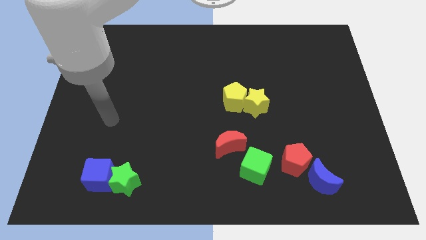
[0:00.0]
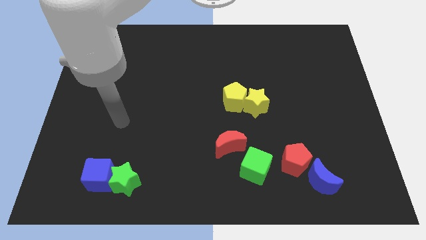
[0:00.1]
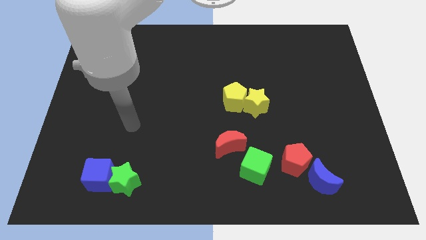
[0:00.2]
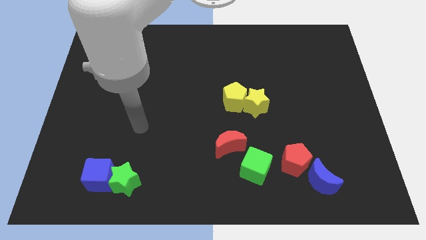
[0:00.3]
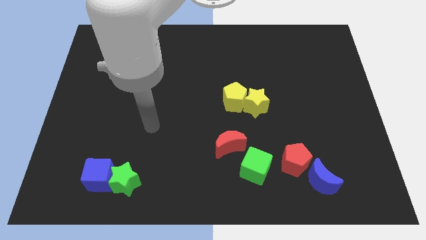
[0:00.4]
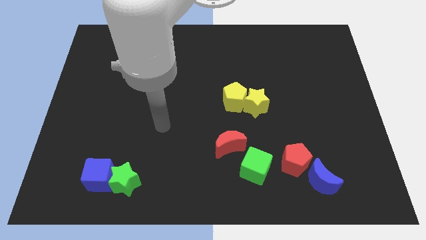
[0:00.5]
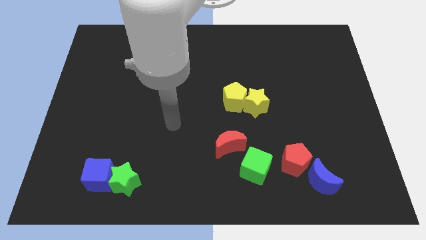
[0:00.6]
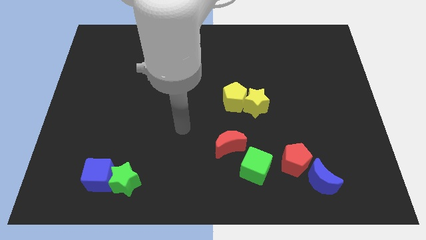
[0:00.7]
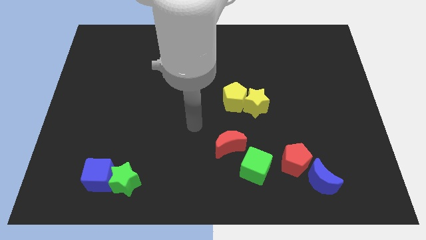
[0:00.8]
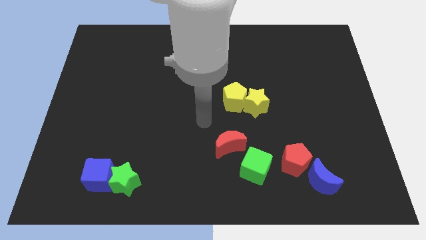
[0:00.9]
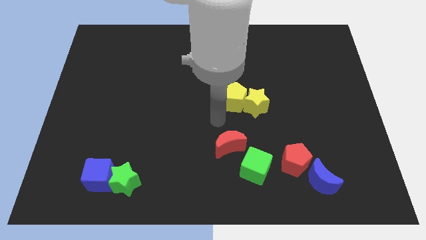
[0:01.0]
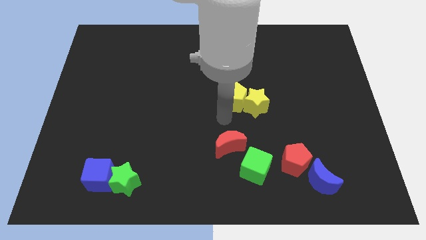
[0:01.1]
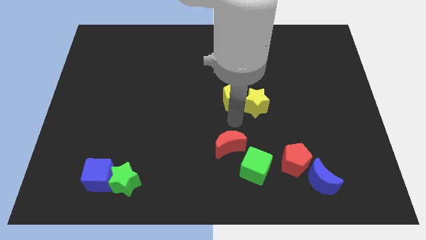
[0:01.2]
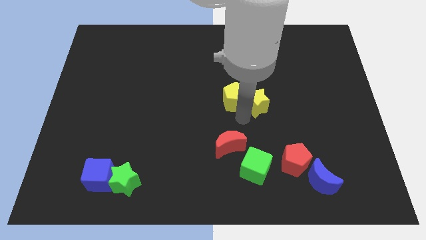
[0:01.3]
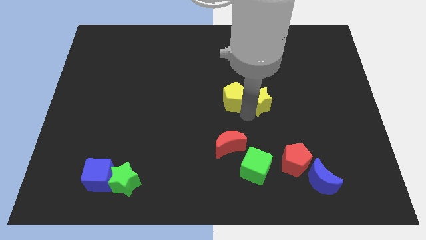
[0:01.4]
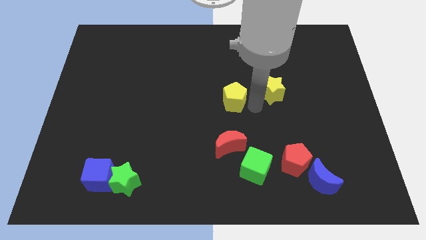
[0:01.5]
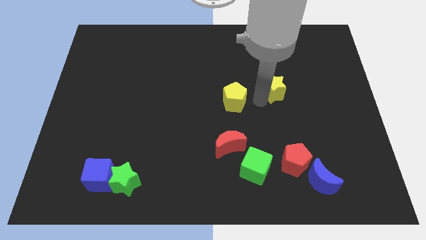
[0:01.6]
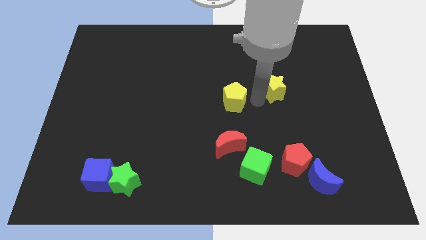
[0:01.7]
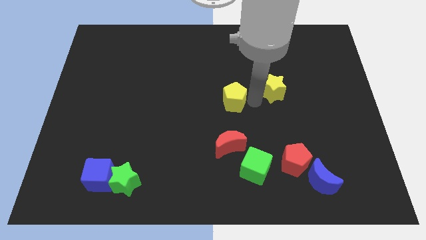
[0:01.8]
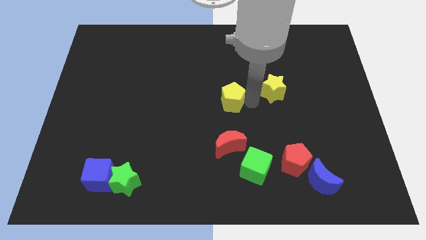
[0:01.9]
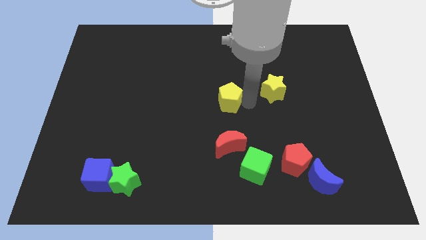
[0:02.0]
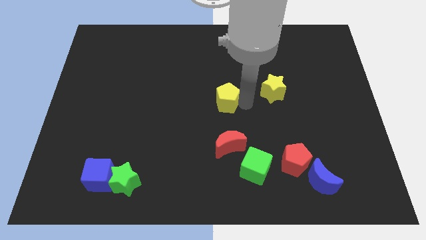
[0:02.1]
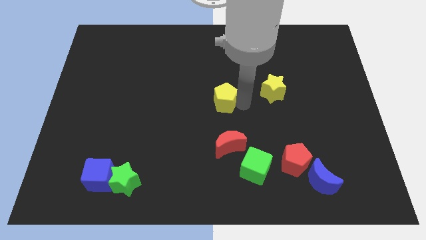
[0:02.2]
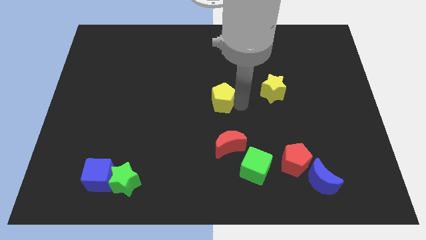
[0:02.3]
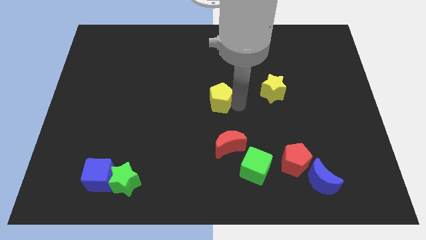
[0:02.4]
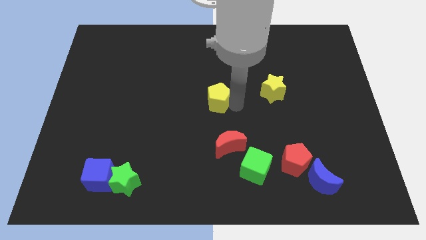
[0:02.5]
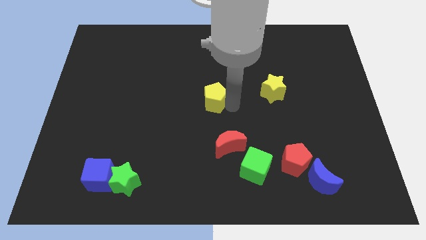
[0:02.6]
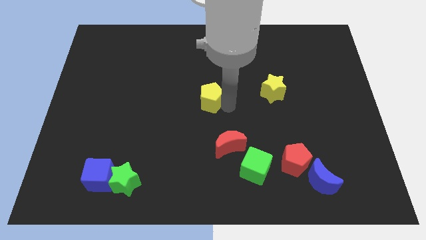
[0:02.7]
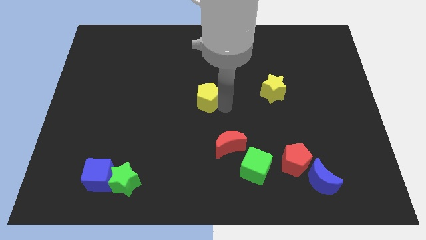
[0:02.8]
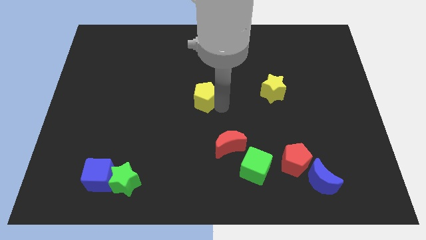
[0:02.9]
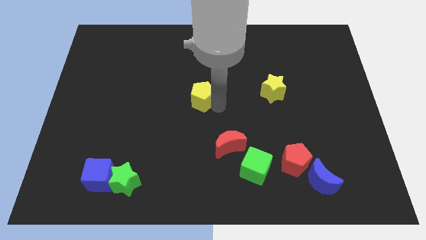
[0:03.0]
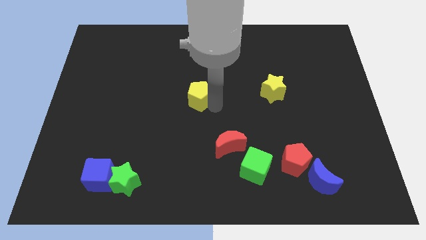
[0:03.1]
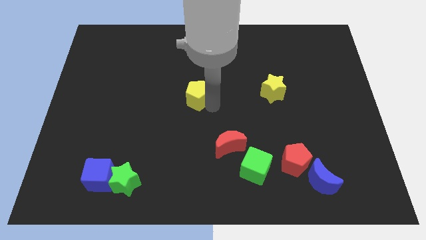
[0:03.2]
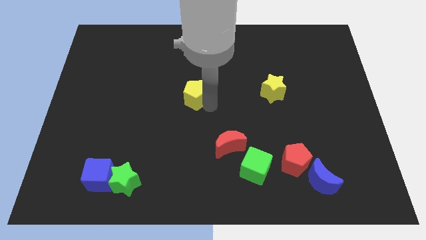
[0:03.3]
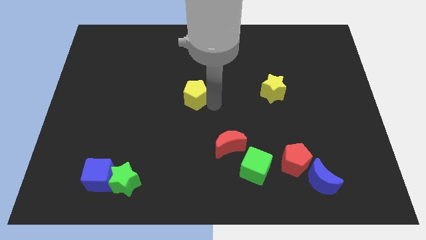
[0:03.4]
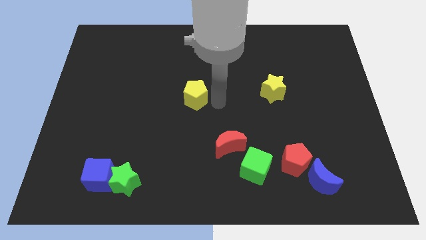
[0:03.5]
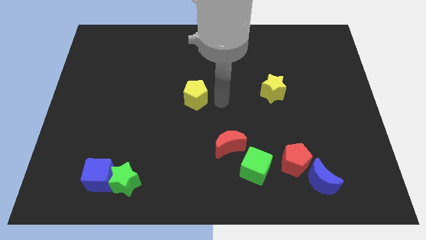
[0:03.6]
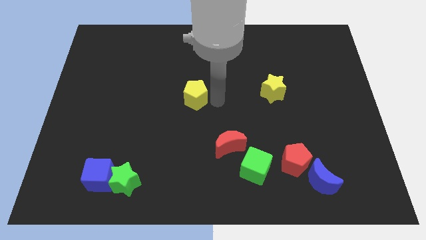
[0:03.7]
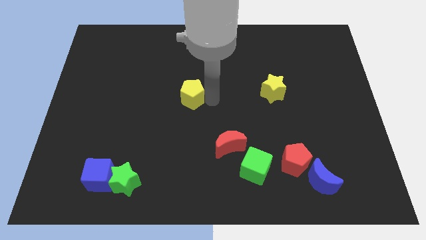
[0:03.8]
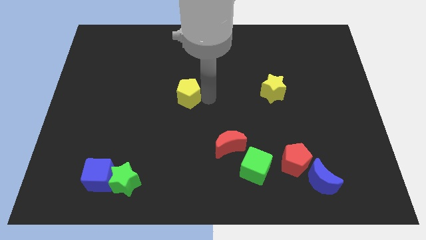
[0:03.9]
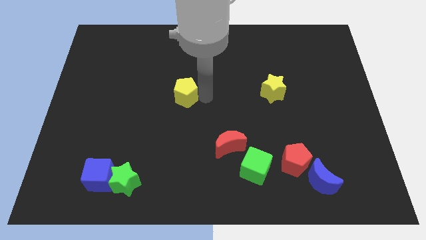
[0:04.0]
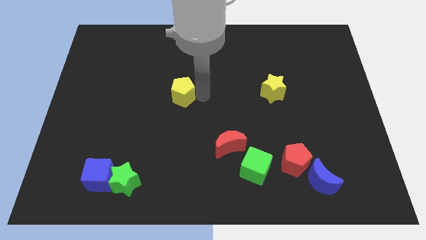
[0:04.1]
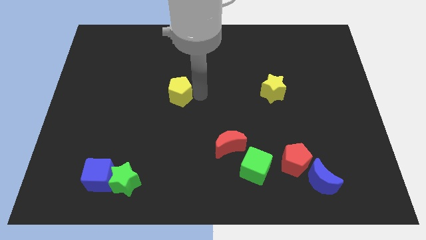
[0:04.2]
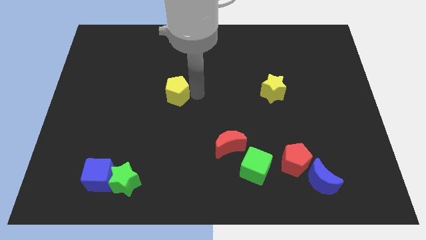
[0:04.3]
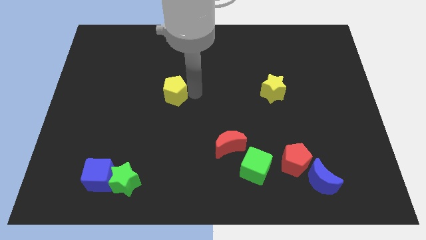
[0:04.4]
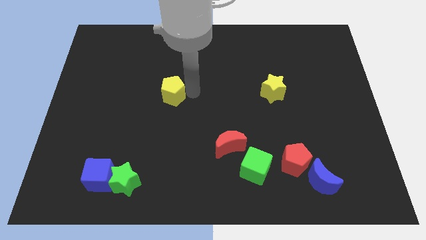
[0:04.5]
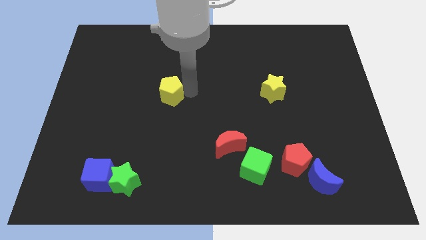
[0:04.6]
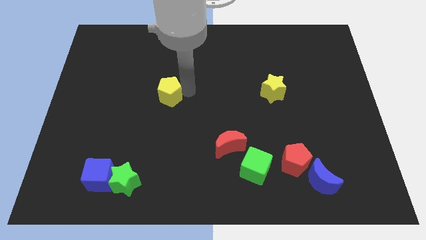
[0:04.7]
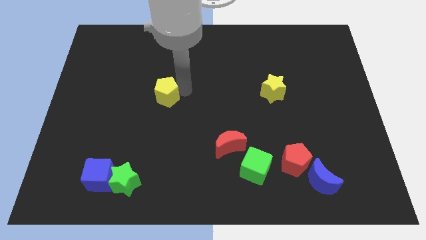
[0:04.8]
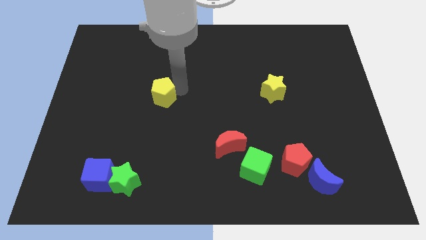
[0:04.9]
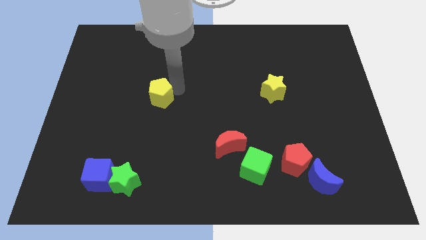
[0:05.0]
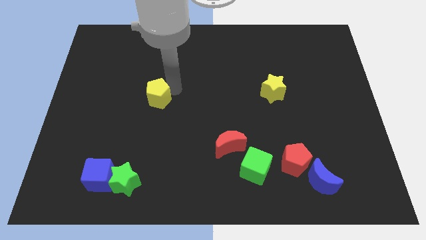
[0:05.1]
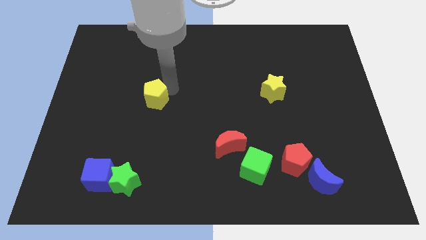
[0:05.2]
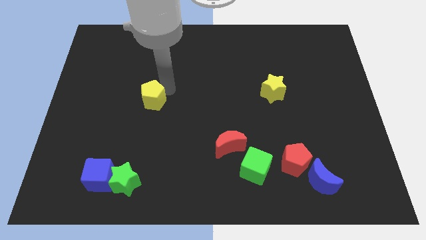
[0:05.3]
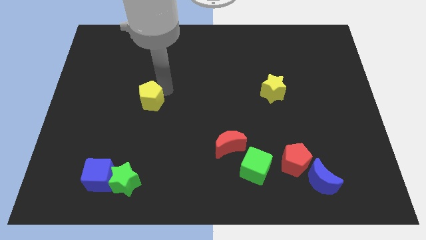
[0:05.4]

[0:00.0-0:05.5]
push the yellow pentagon to the left

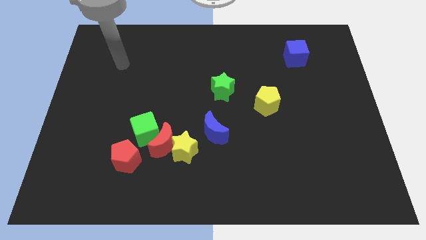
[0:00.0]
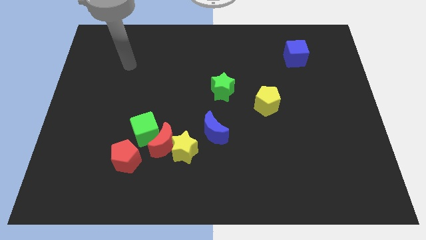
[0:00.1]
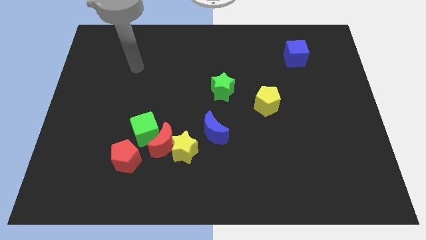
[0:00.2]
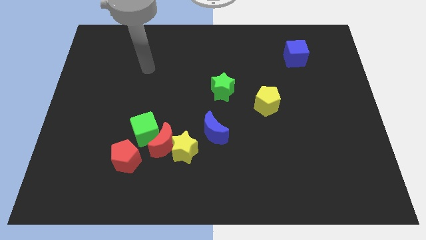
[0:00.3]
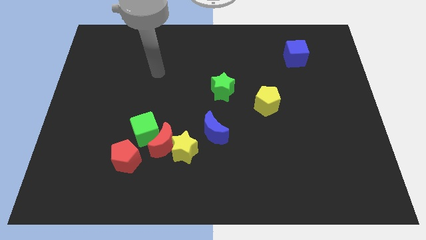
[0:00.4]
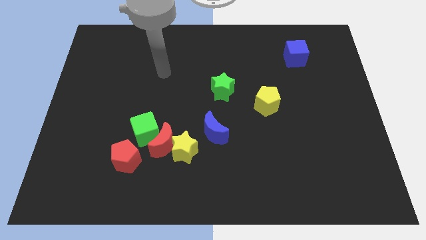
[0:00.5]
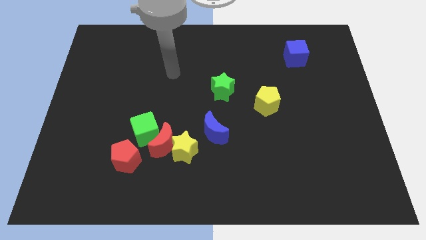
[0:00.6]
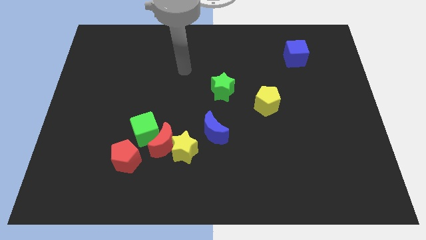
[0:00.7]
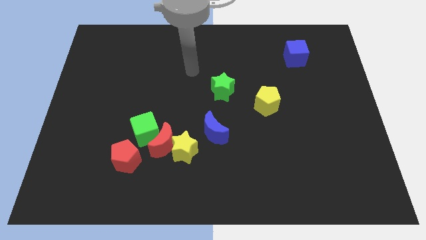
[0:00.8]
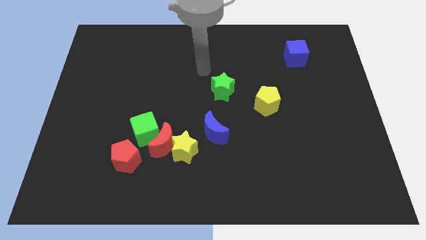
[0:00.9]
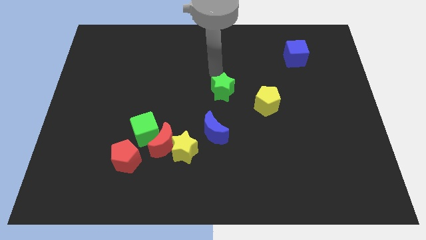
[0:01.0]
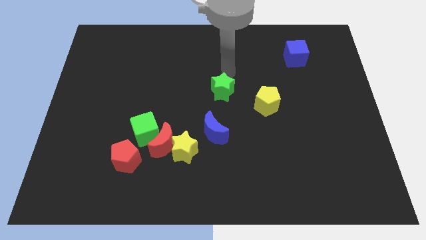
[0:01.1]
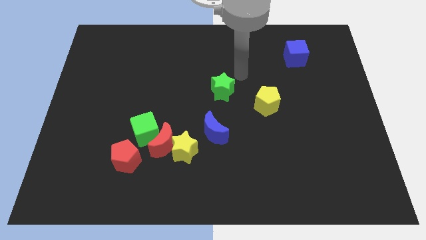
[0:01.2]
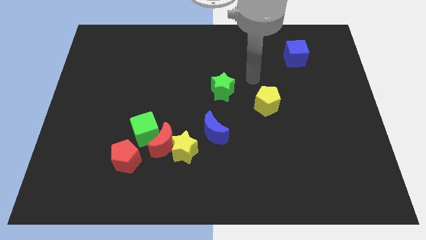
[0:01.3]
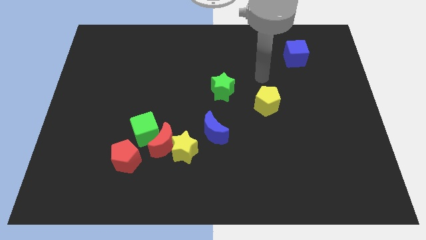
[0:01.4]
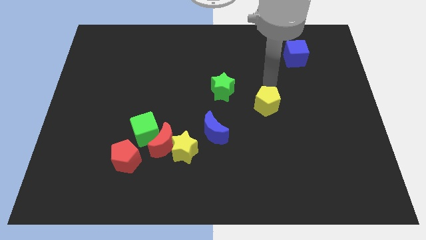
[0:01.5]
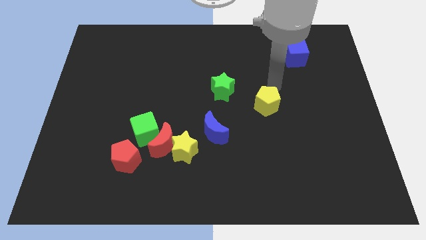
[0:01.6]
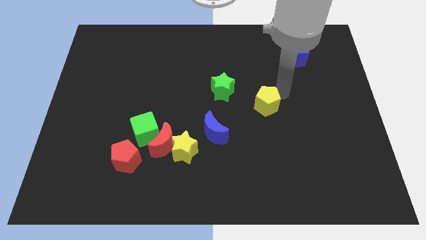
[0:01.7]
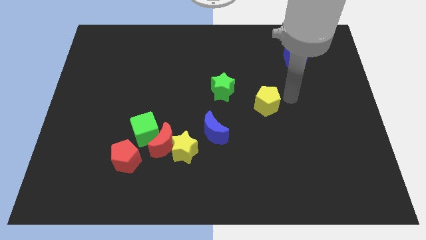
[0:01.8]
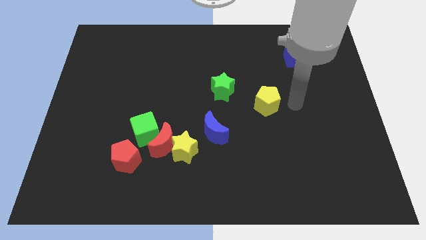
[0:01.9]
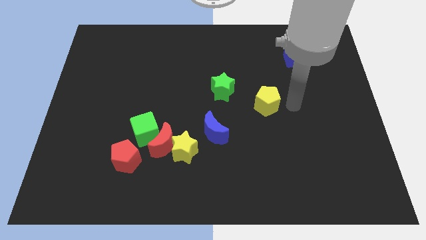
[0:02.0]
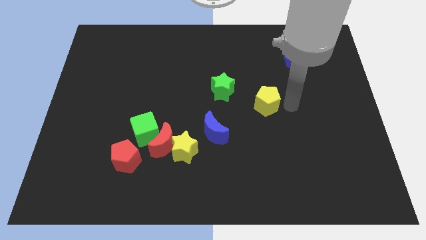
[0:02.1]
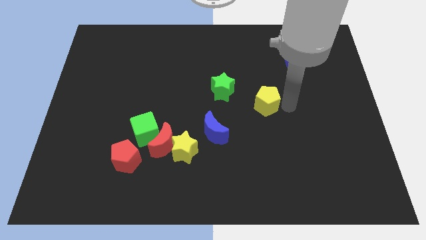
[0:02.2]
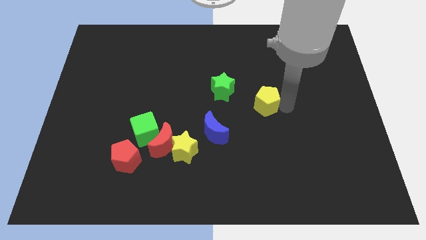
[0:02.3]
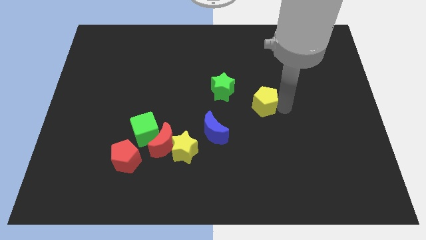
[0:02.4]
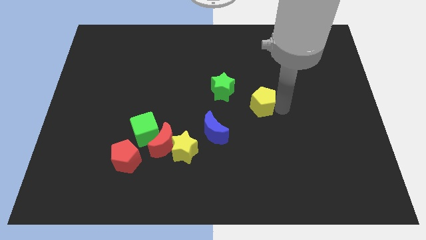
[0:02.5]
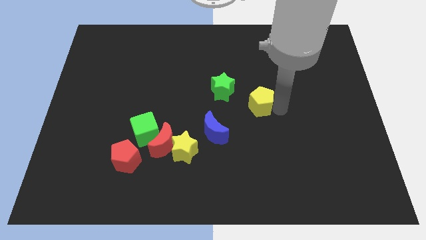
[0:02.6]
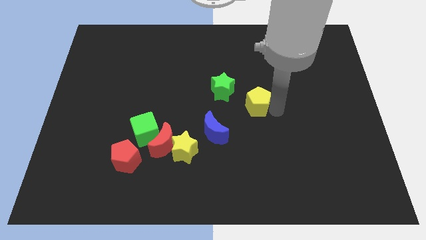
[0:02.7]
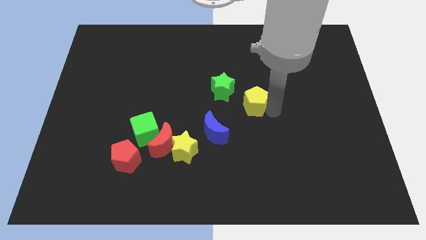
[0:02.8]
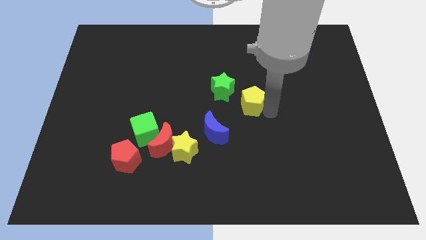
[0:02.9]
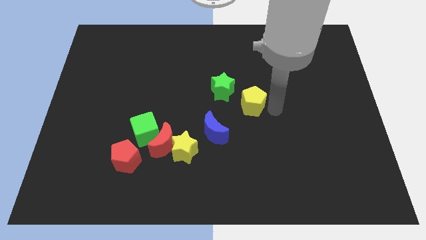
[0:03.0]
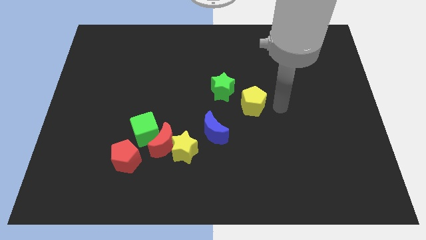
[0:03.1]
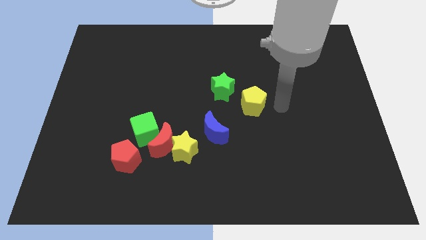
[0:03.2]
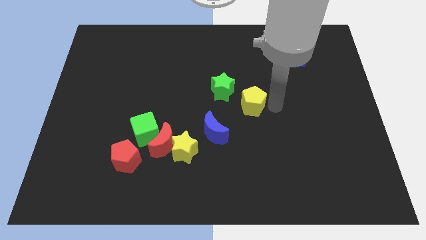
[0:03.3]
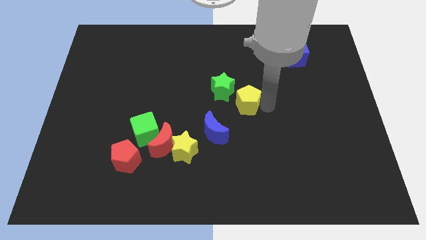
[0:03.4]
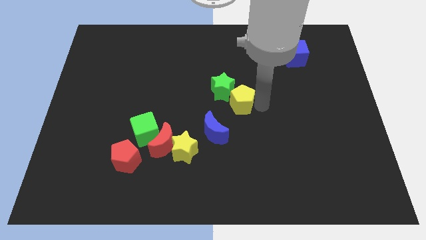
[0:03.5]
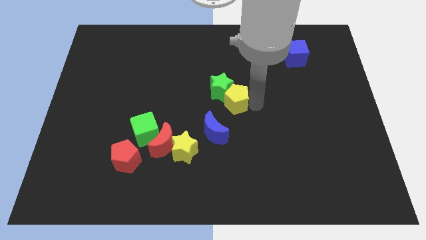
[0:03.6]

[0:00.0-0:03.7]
push the yellow pentagon left a little bit
